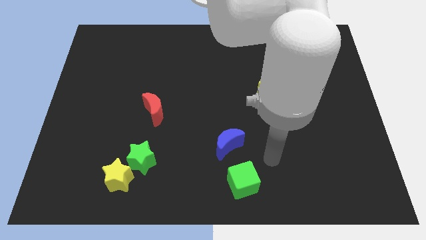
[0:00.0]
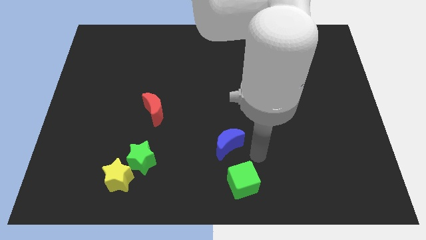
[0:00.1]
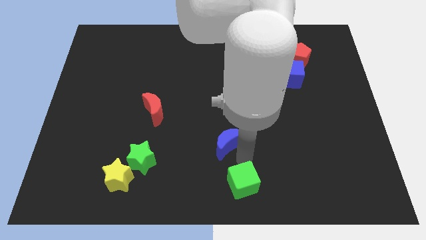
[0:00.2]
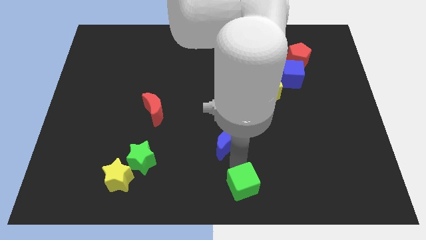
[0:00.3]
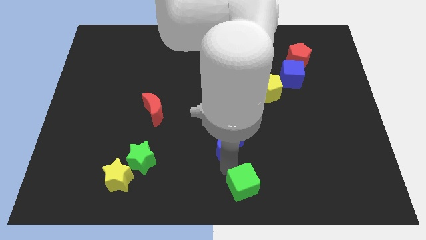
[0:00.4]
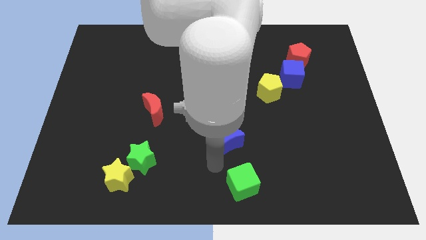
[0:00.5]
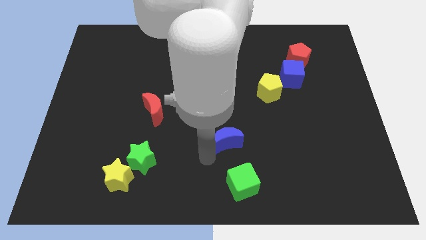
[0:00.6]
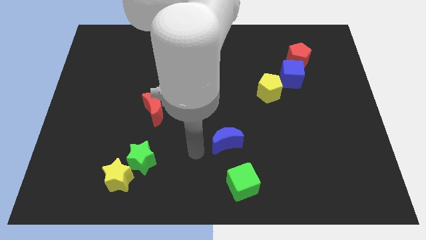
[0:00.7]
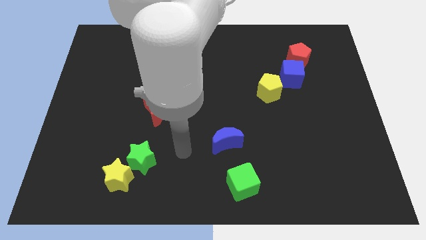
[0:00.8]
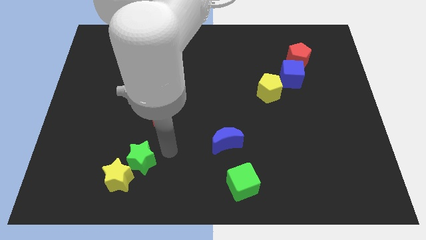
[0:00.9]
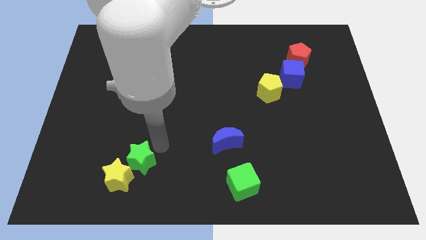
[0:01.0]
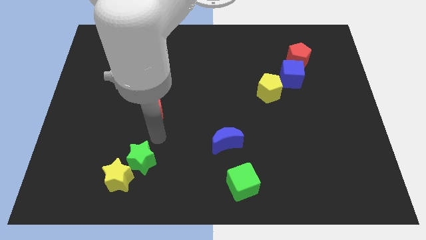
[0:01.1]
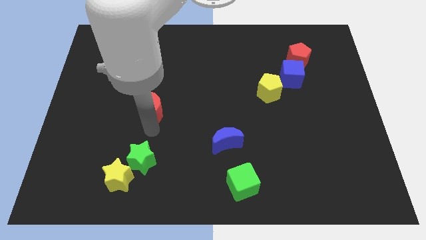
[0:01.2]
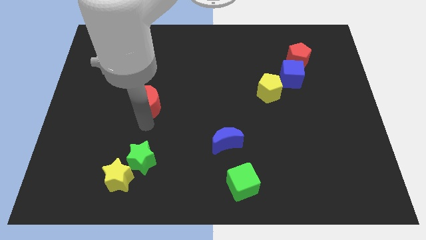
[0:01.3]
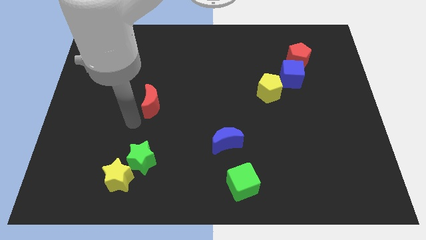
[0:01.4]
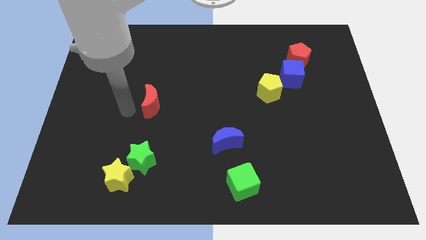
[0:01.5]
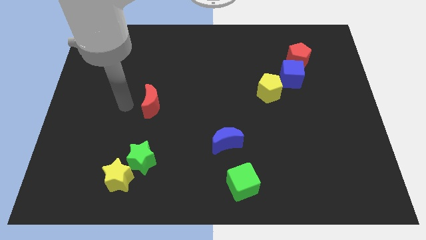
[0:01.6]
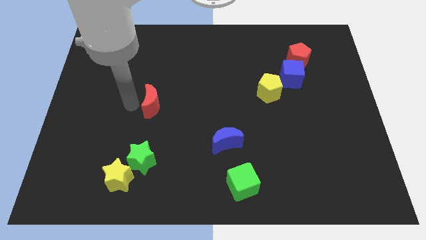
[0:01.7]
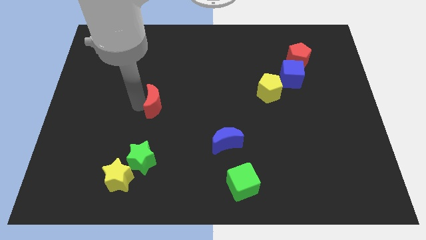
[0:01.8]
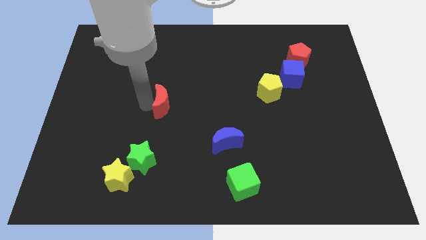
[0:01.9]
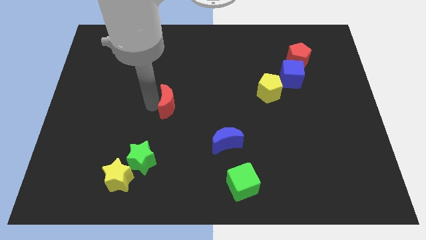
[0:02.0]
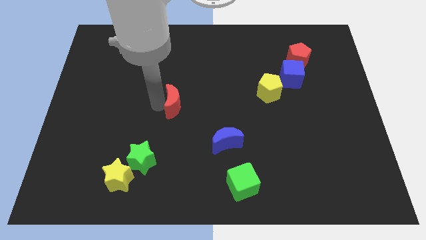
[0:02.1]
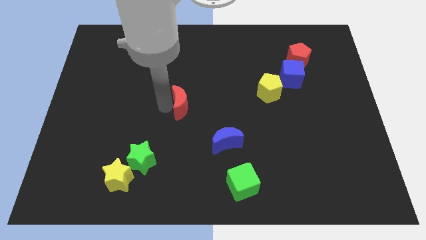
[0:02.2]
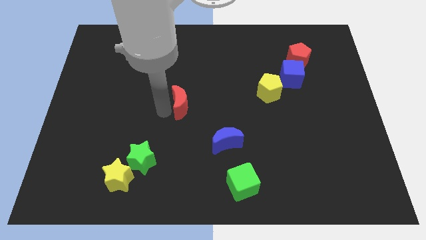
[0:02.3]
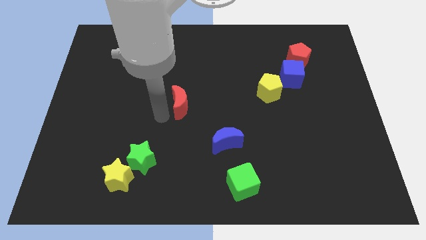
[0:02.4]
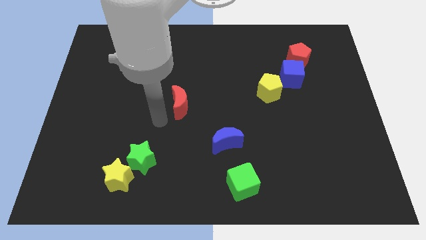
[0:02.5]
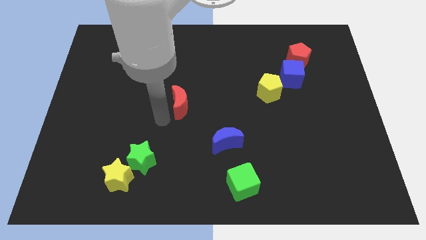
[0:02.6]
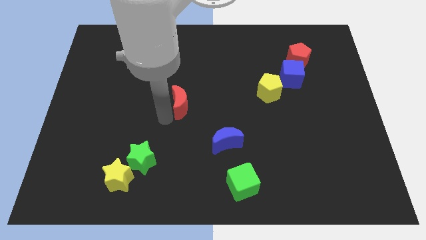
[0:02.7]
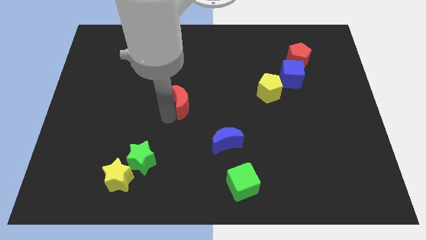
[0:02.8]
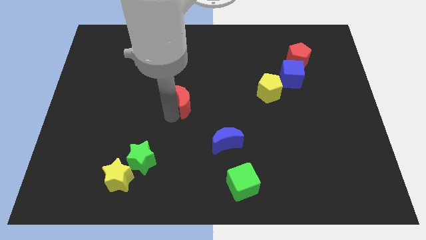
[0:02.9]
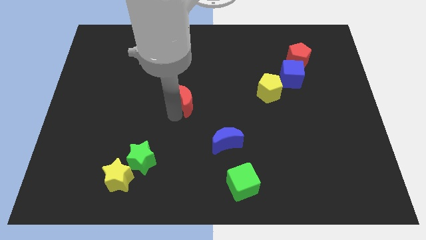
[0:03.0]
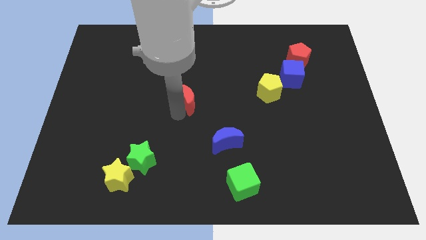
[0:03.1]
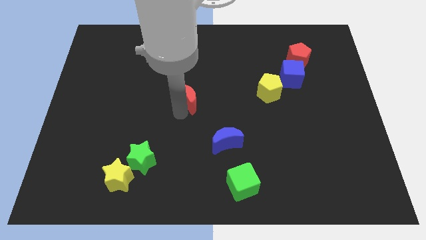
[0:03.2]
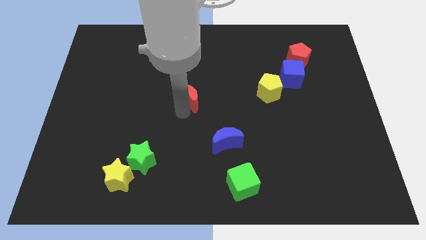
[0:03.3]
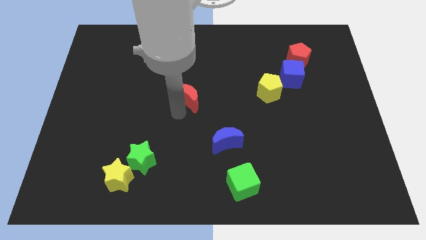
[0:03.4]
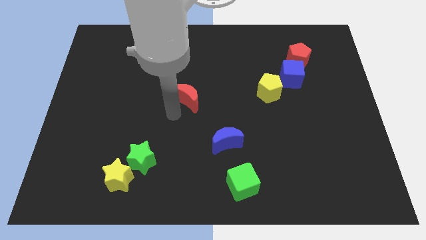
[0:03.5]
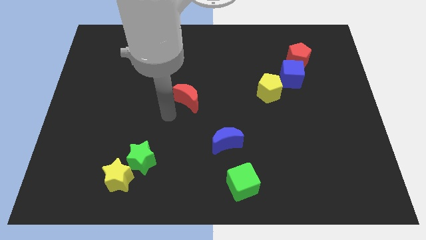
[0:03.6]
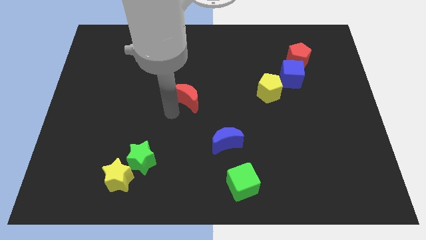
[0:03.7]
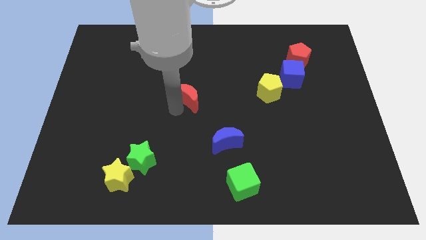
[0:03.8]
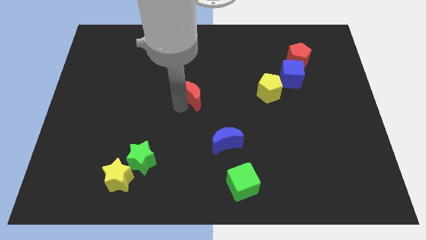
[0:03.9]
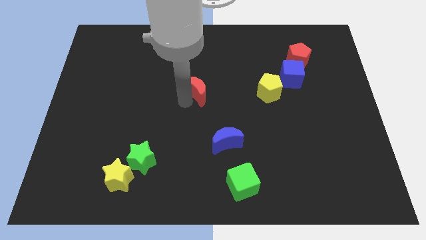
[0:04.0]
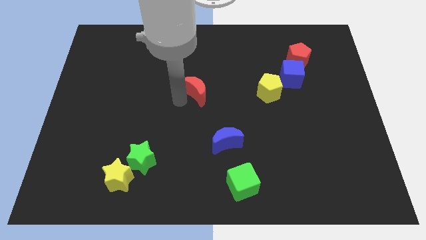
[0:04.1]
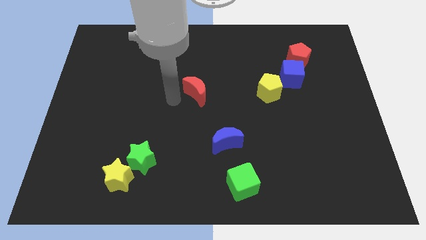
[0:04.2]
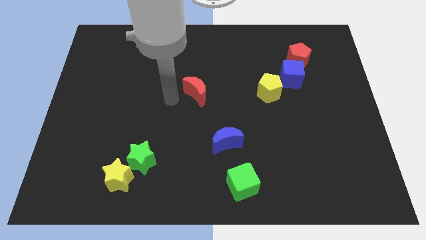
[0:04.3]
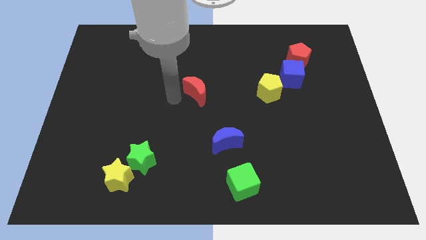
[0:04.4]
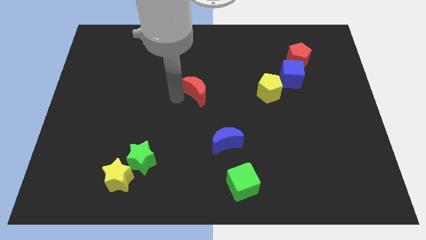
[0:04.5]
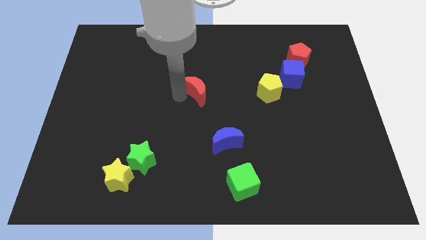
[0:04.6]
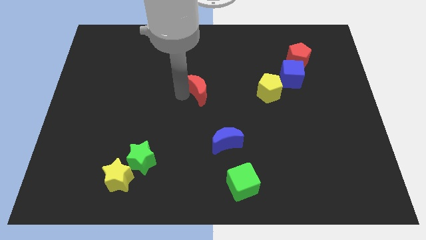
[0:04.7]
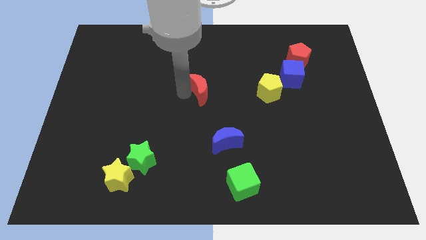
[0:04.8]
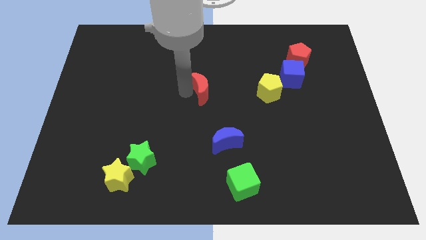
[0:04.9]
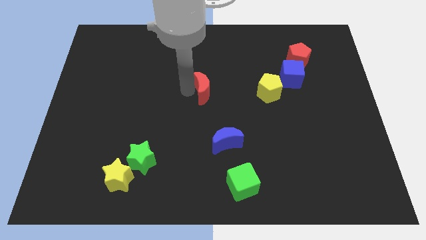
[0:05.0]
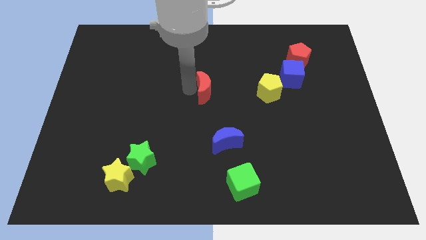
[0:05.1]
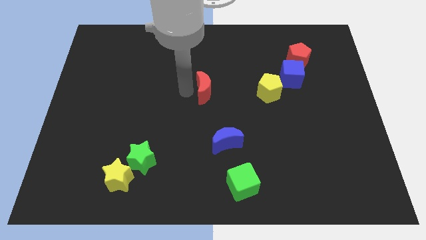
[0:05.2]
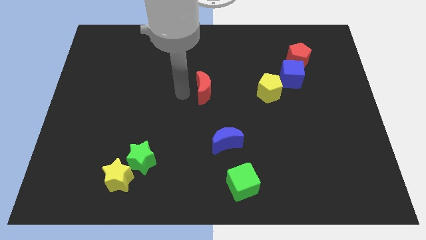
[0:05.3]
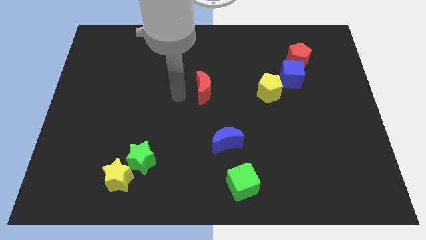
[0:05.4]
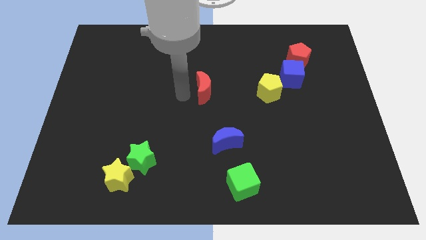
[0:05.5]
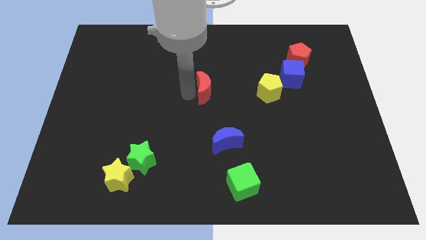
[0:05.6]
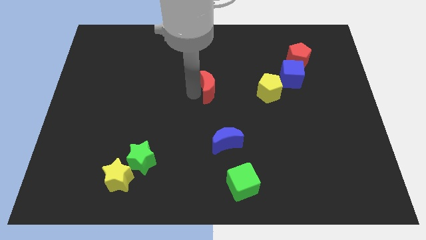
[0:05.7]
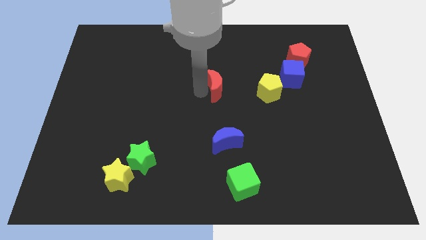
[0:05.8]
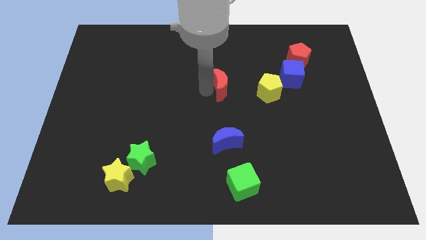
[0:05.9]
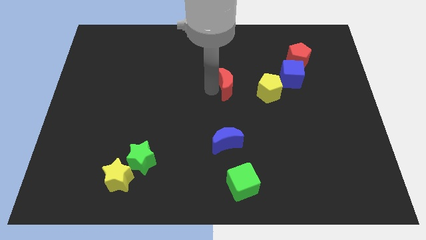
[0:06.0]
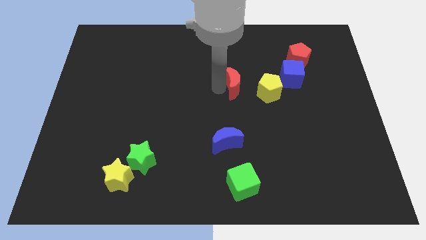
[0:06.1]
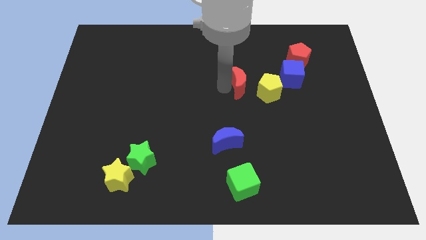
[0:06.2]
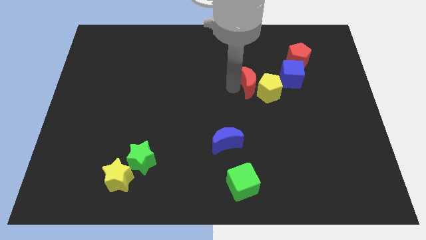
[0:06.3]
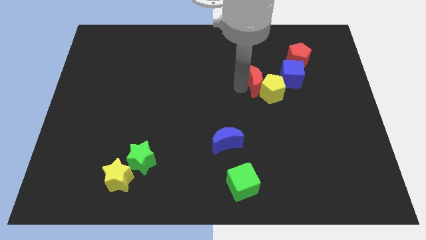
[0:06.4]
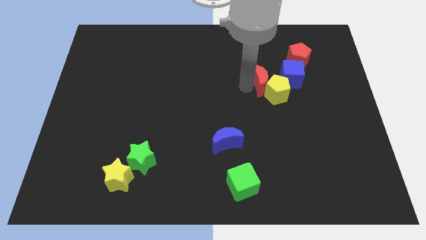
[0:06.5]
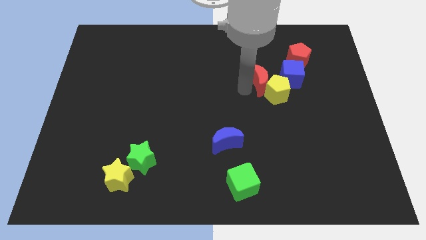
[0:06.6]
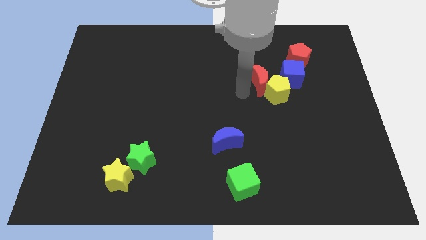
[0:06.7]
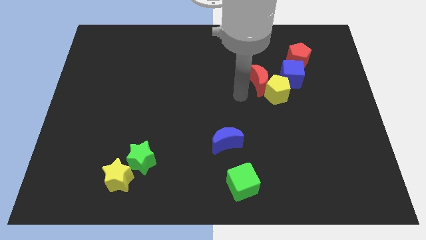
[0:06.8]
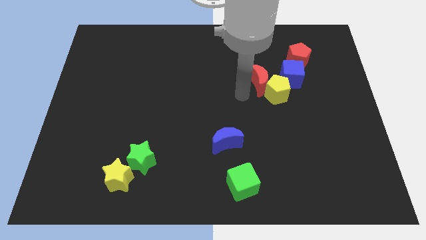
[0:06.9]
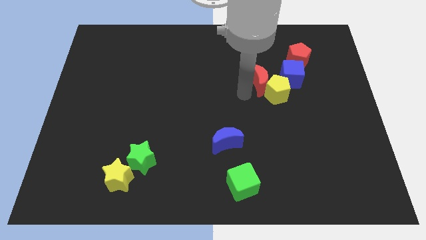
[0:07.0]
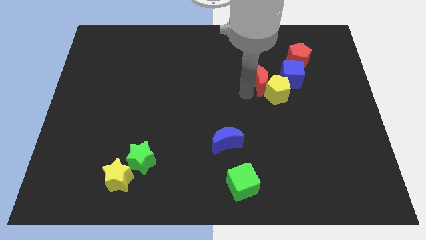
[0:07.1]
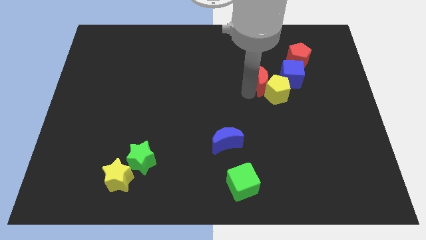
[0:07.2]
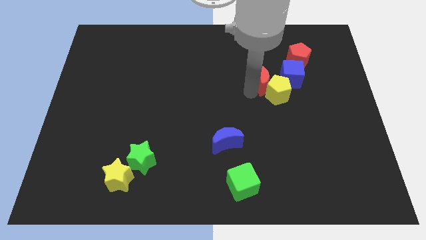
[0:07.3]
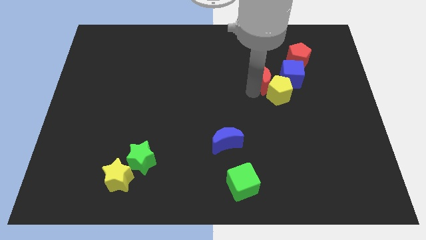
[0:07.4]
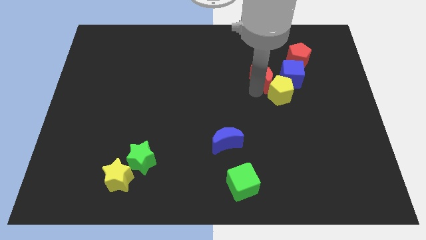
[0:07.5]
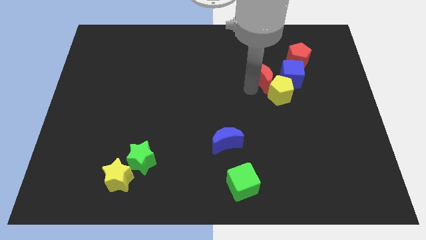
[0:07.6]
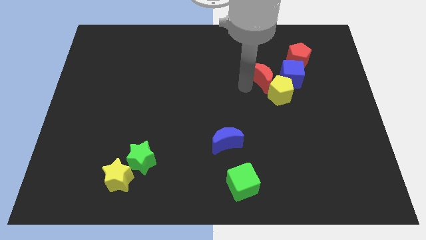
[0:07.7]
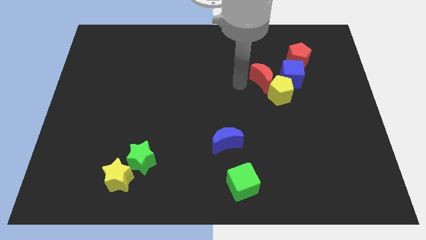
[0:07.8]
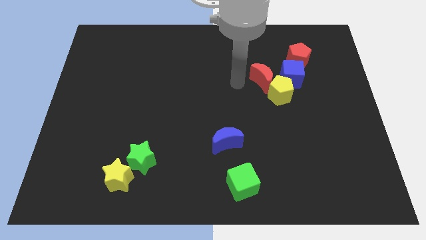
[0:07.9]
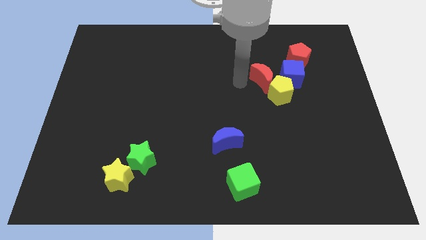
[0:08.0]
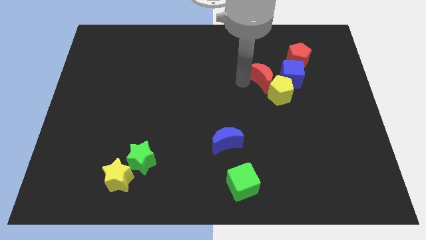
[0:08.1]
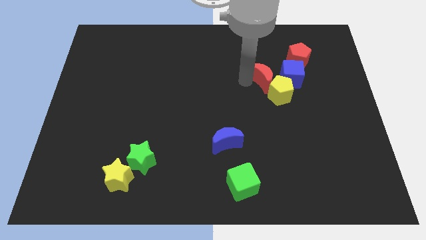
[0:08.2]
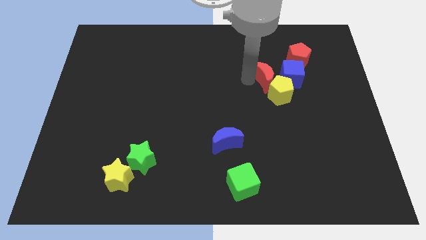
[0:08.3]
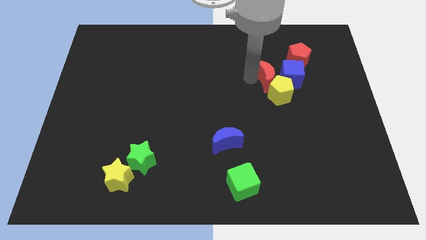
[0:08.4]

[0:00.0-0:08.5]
push the red moon to the blue cube
